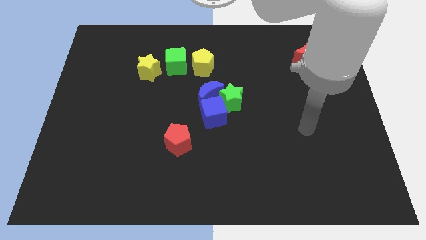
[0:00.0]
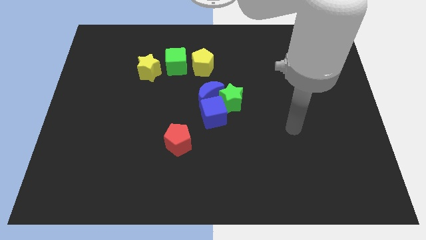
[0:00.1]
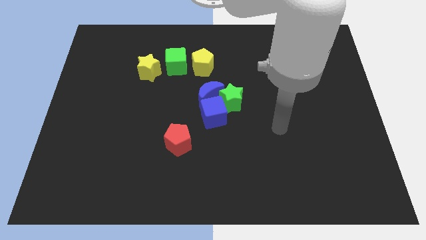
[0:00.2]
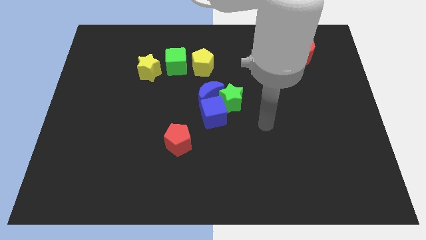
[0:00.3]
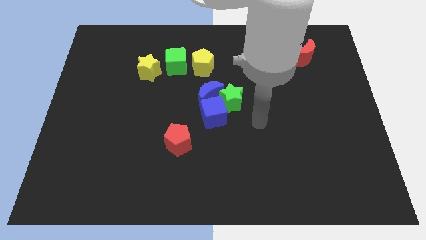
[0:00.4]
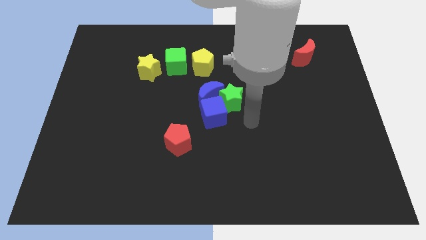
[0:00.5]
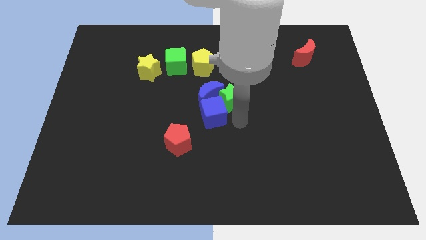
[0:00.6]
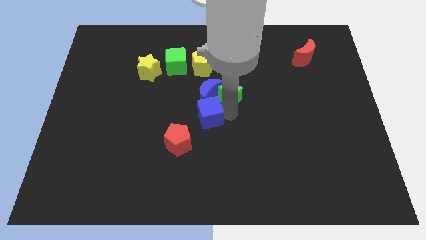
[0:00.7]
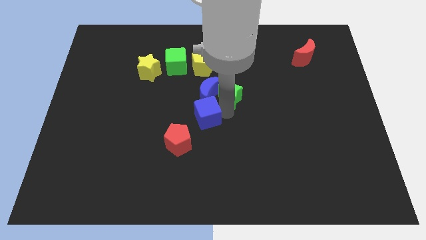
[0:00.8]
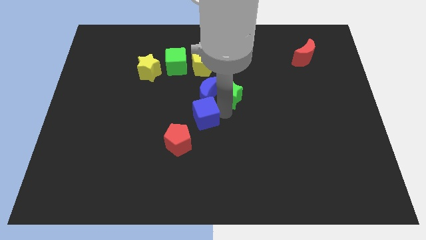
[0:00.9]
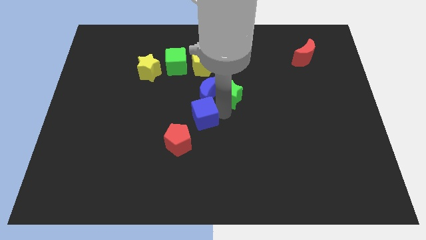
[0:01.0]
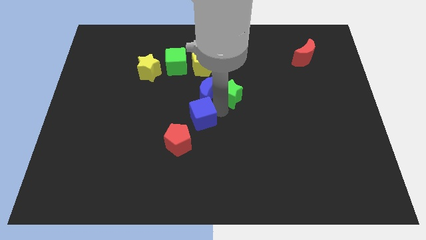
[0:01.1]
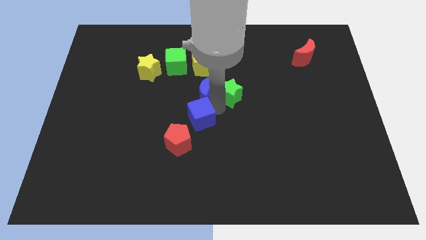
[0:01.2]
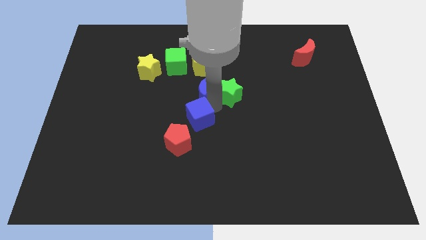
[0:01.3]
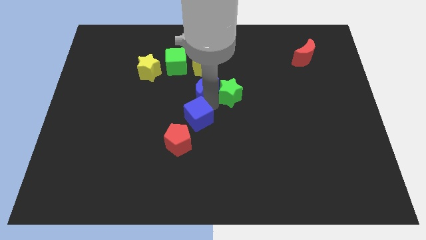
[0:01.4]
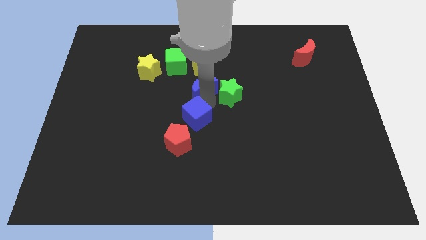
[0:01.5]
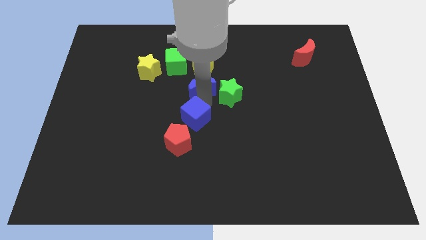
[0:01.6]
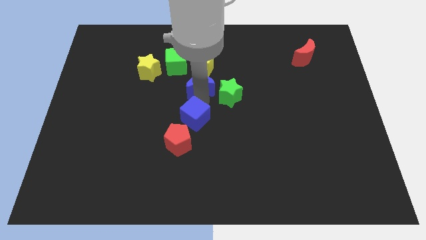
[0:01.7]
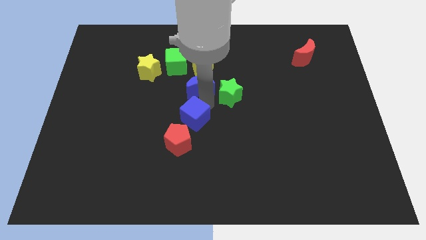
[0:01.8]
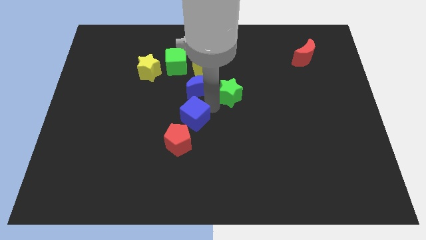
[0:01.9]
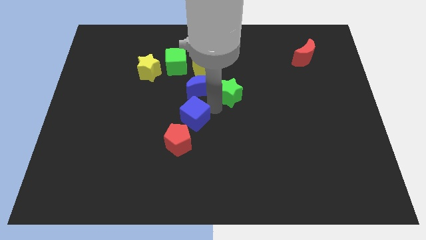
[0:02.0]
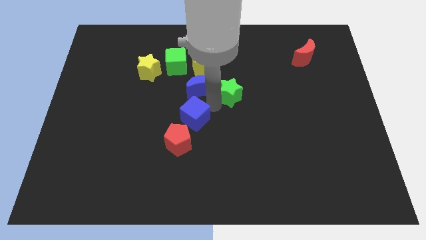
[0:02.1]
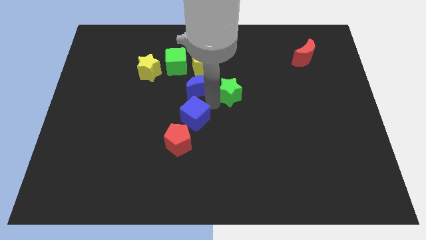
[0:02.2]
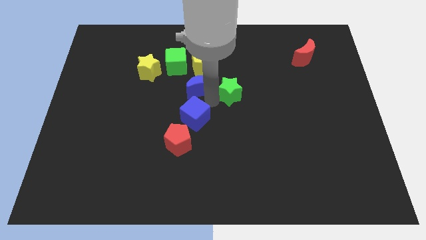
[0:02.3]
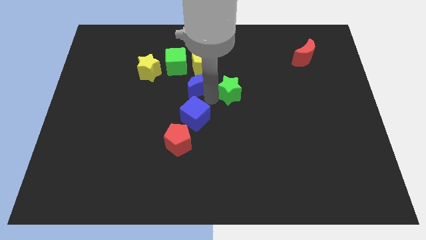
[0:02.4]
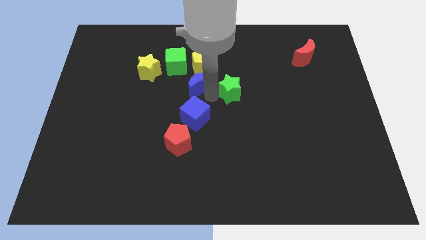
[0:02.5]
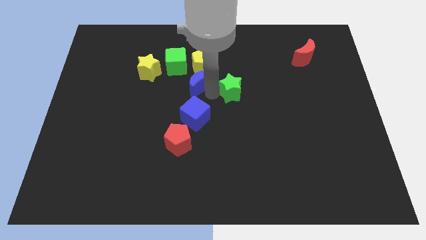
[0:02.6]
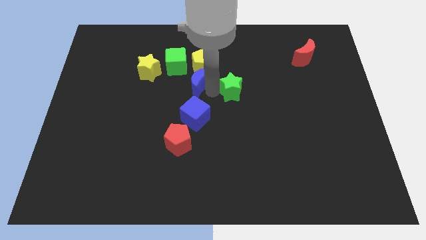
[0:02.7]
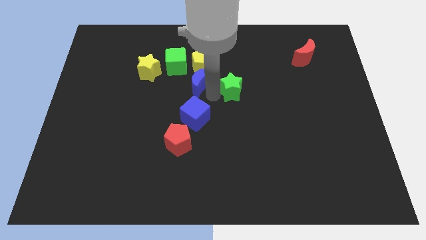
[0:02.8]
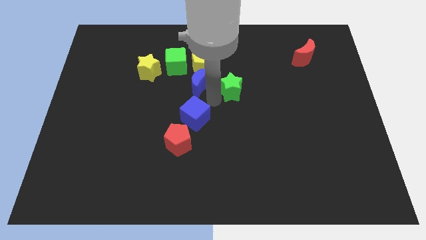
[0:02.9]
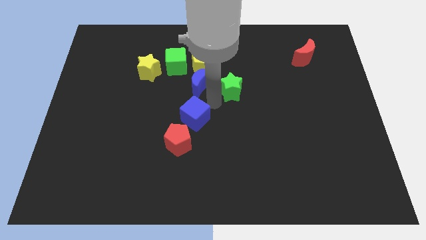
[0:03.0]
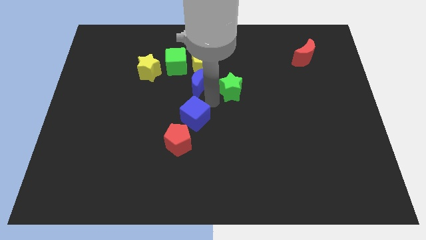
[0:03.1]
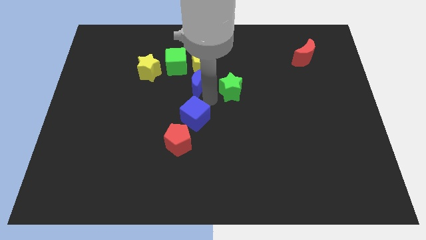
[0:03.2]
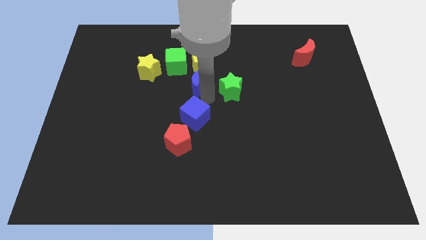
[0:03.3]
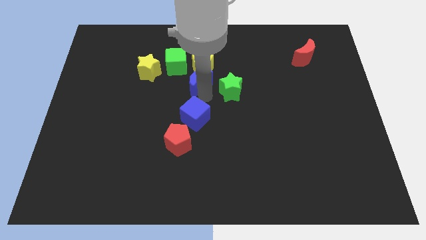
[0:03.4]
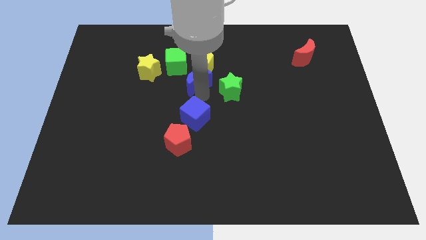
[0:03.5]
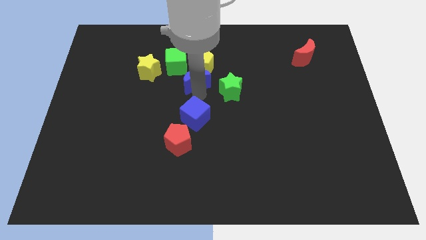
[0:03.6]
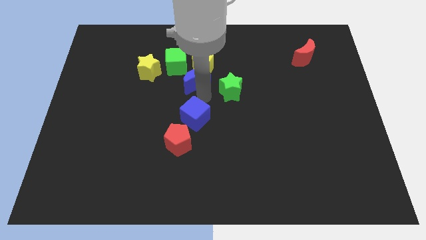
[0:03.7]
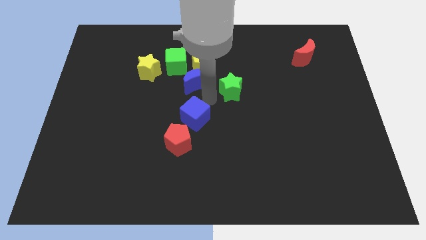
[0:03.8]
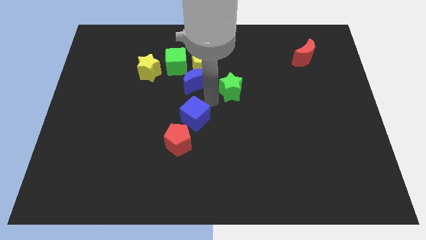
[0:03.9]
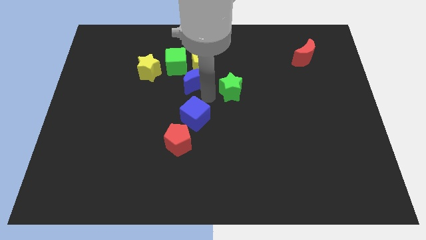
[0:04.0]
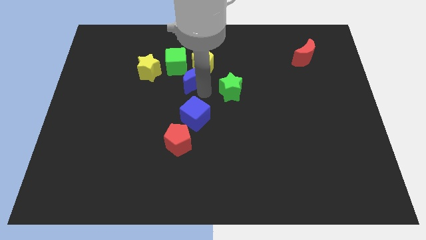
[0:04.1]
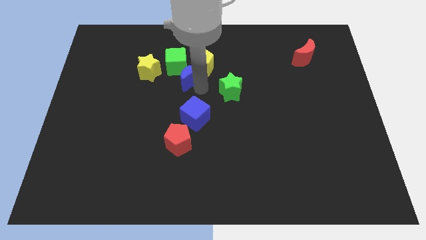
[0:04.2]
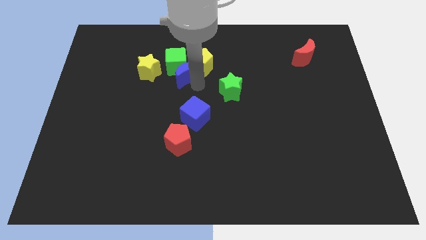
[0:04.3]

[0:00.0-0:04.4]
pull the blue moon apart from the green star and blue cube

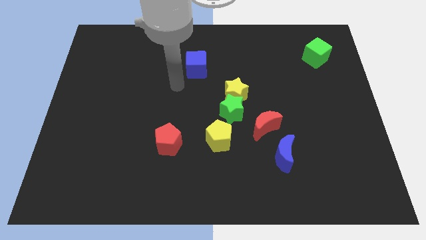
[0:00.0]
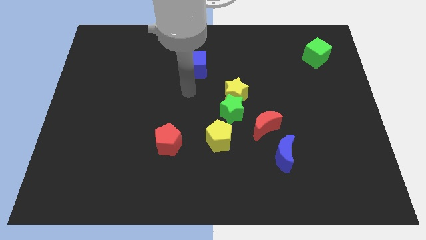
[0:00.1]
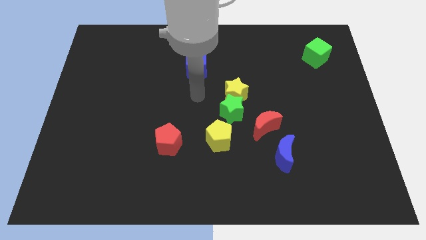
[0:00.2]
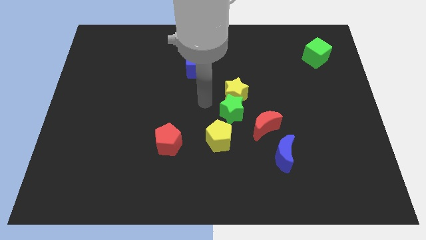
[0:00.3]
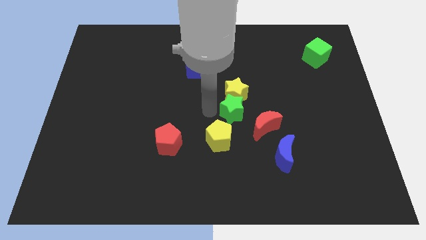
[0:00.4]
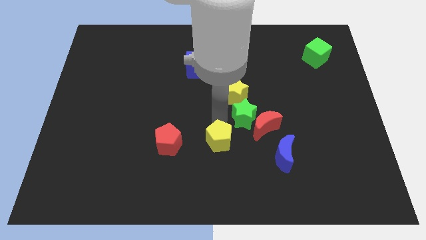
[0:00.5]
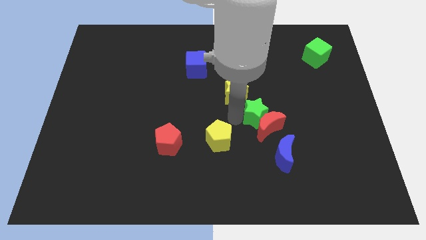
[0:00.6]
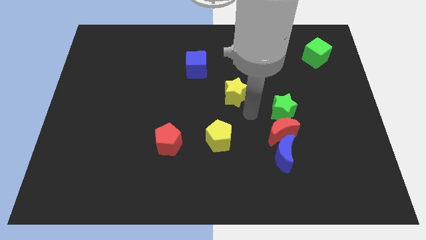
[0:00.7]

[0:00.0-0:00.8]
move the yellow star away from the green star

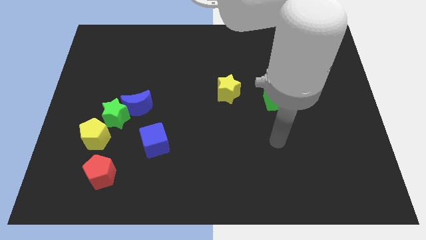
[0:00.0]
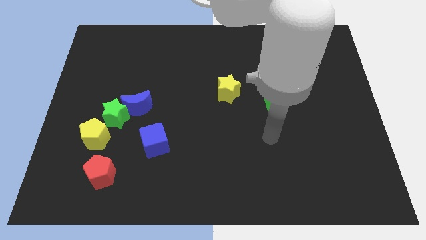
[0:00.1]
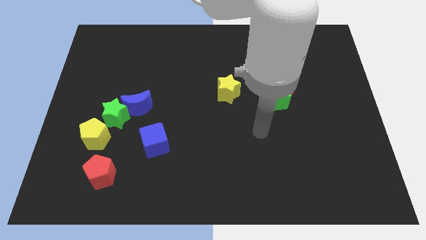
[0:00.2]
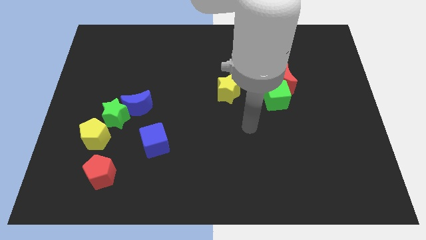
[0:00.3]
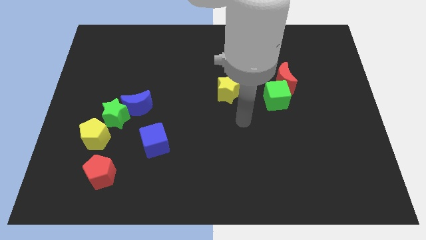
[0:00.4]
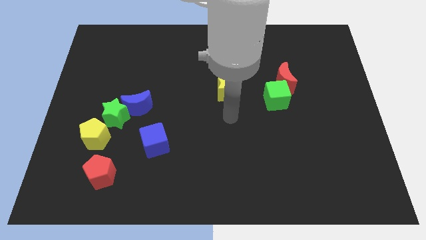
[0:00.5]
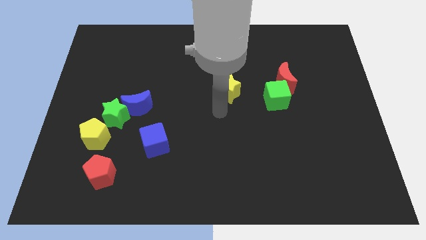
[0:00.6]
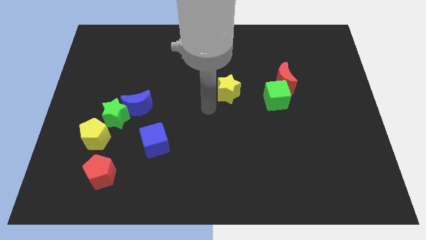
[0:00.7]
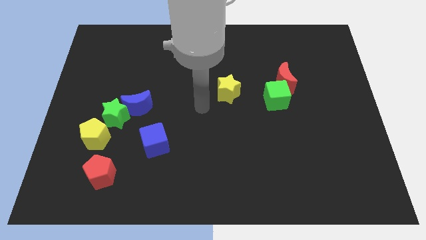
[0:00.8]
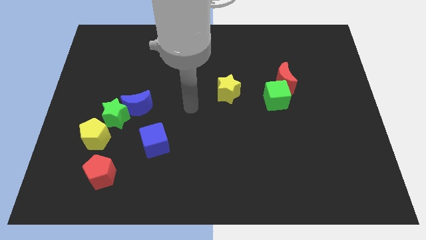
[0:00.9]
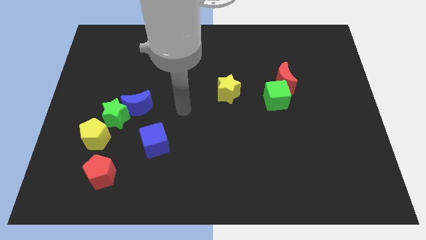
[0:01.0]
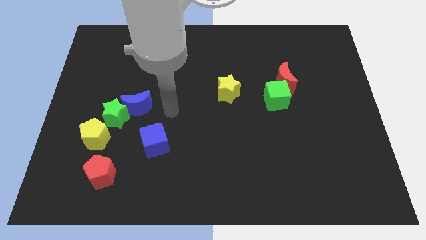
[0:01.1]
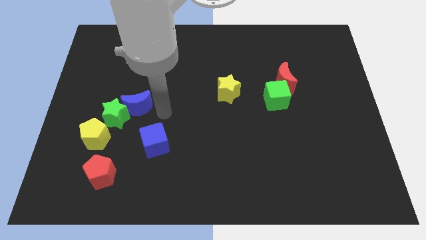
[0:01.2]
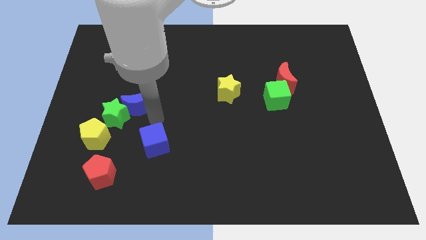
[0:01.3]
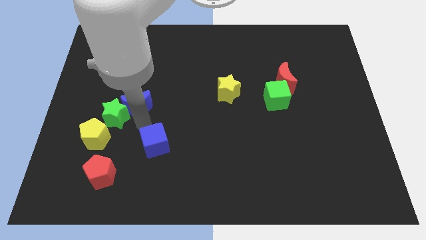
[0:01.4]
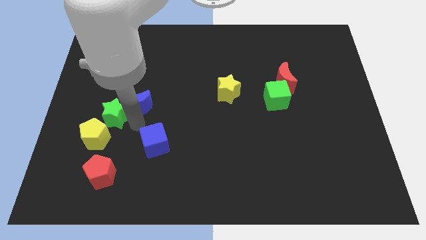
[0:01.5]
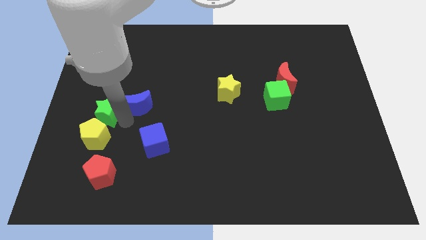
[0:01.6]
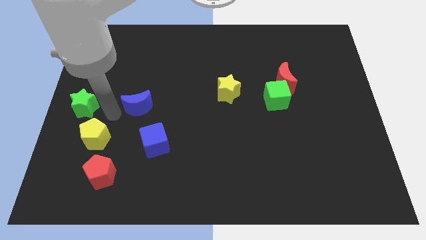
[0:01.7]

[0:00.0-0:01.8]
move the blue moon away from the green star

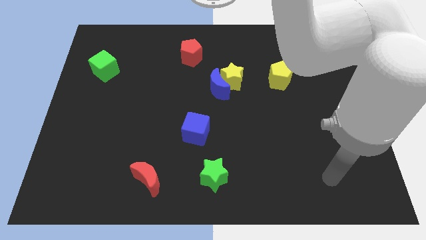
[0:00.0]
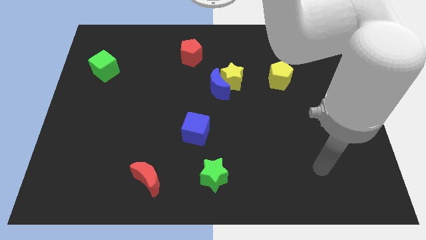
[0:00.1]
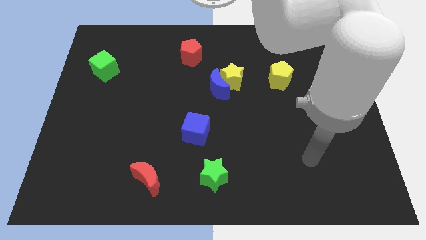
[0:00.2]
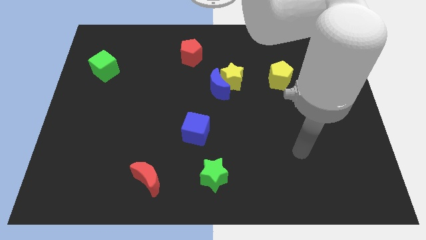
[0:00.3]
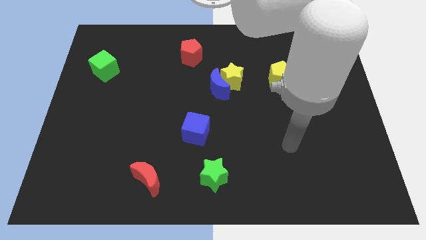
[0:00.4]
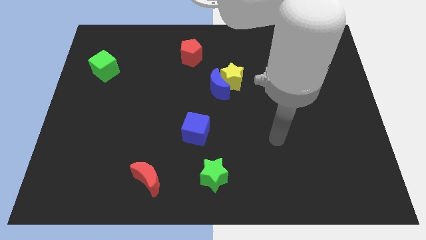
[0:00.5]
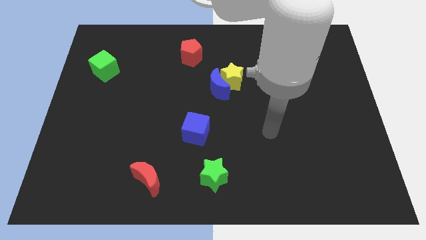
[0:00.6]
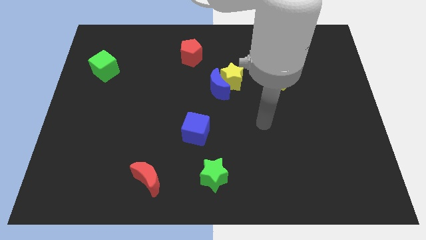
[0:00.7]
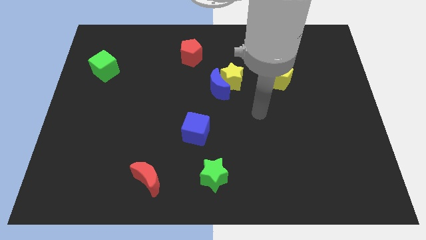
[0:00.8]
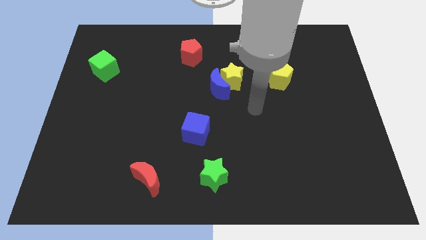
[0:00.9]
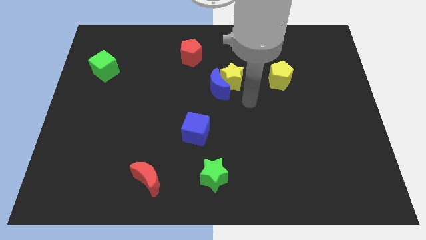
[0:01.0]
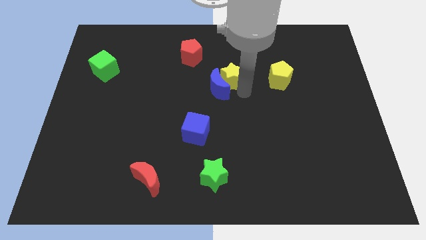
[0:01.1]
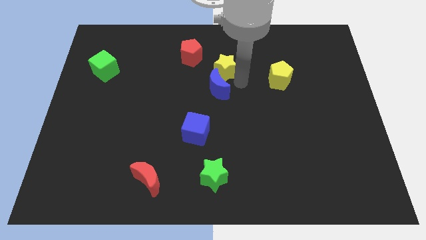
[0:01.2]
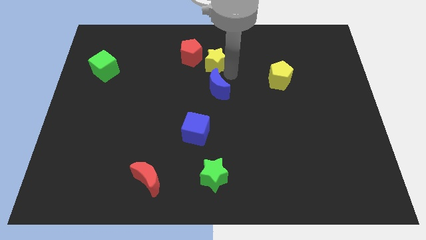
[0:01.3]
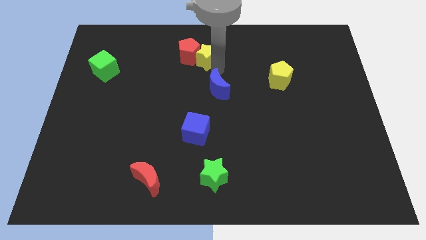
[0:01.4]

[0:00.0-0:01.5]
pull the blue moon apart from the yellow star

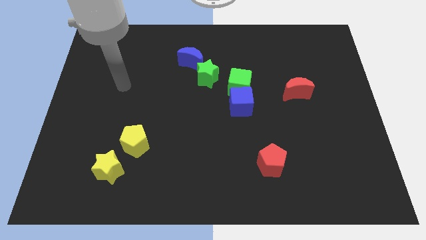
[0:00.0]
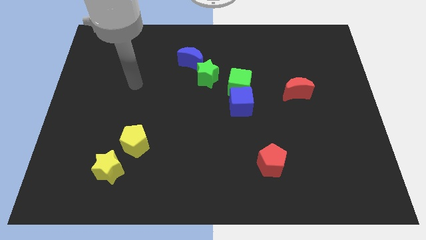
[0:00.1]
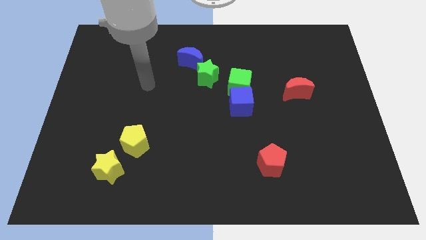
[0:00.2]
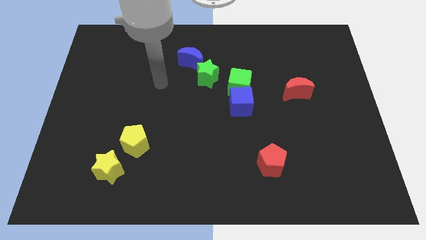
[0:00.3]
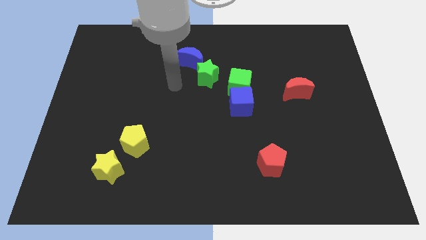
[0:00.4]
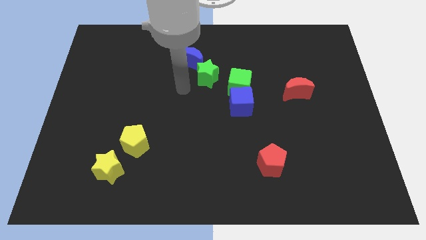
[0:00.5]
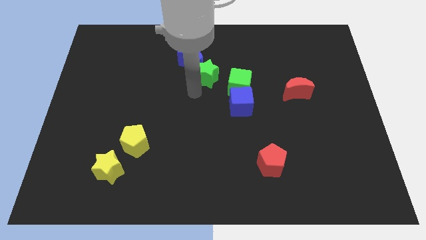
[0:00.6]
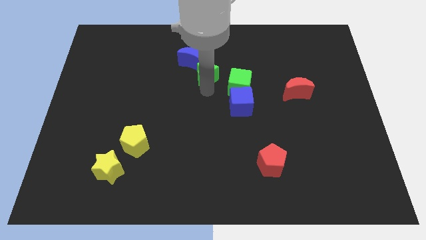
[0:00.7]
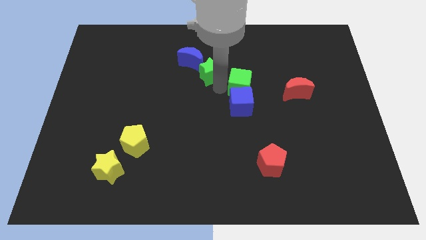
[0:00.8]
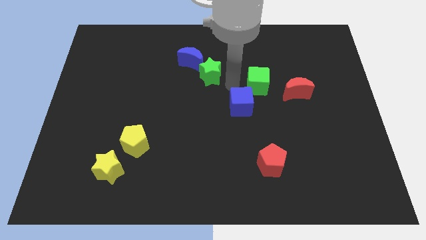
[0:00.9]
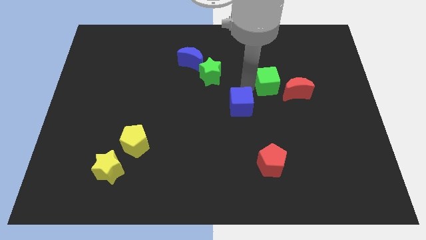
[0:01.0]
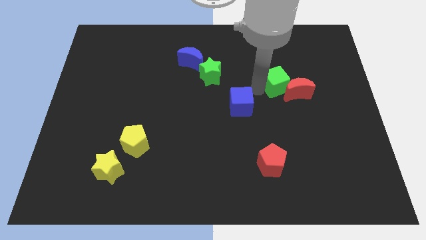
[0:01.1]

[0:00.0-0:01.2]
pull the blue cube apart from the green cube
